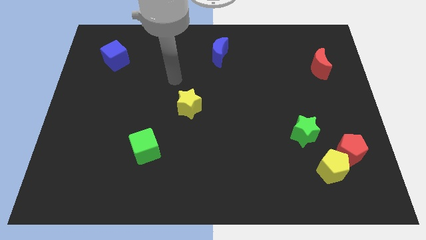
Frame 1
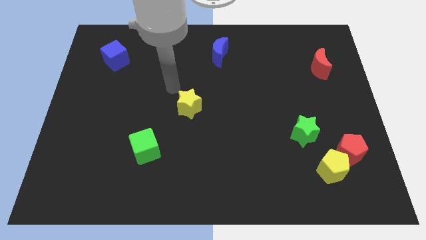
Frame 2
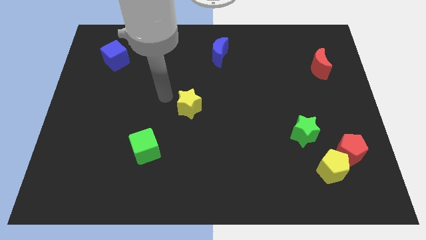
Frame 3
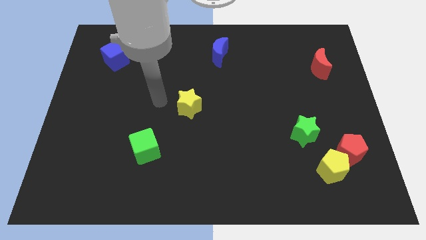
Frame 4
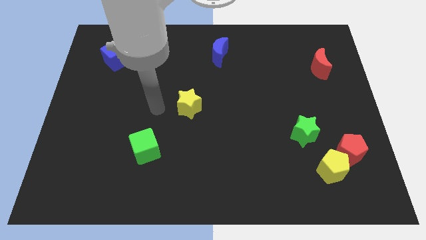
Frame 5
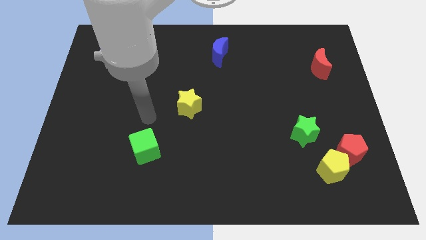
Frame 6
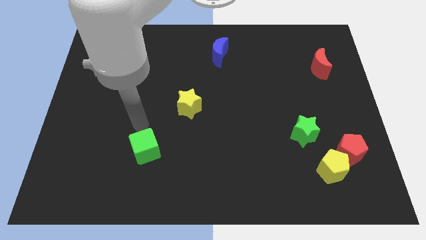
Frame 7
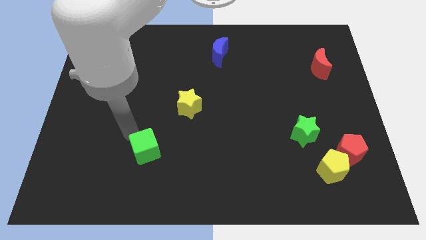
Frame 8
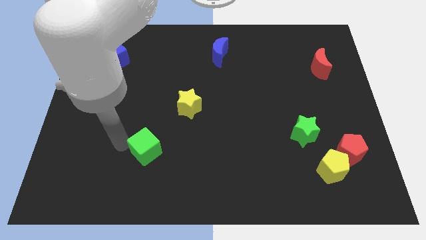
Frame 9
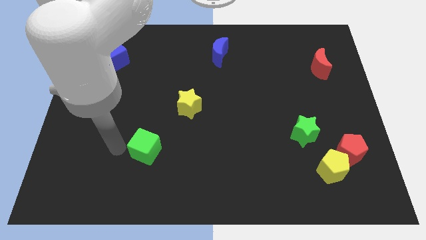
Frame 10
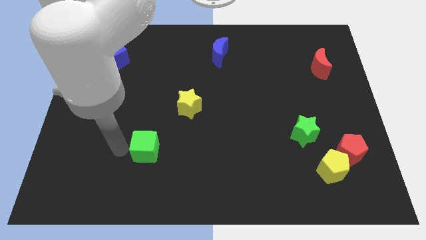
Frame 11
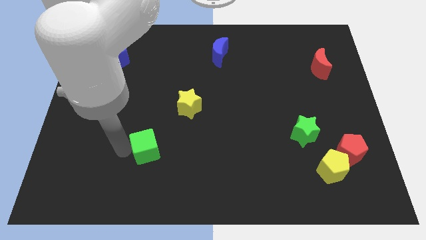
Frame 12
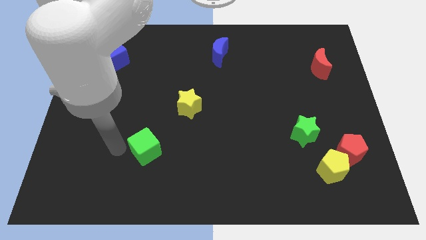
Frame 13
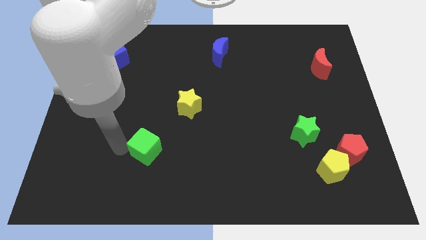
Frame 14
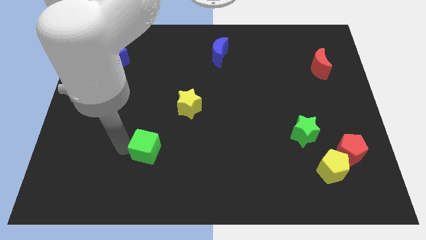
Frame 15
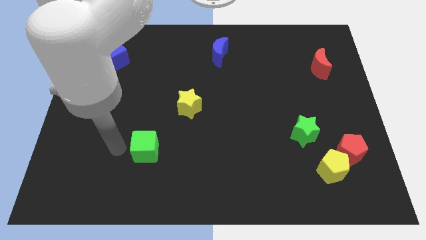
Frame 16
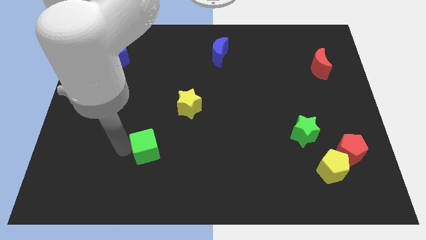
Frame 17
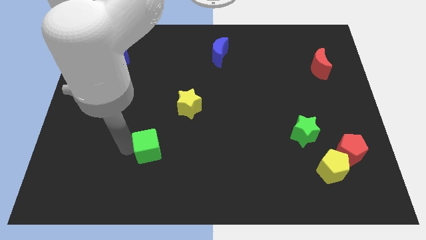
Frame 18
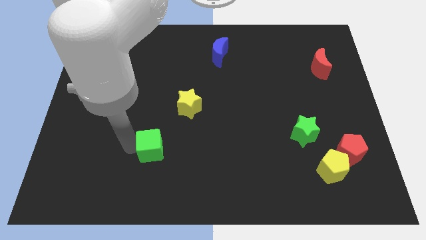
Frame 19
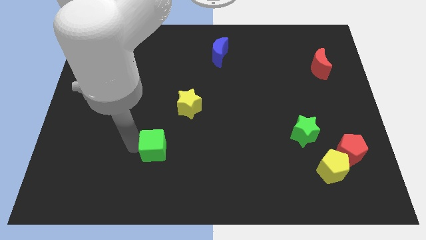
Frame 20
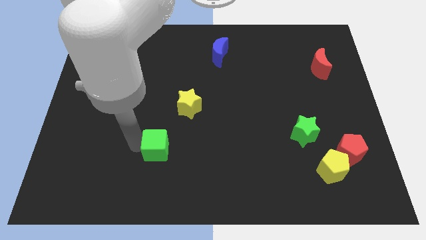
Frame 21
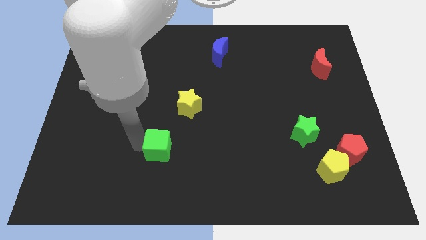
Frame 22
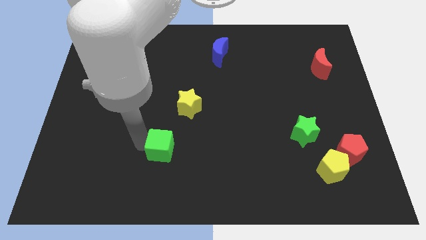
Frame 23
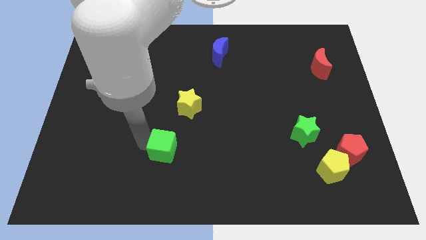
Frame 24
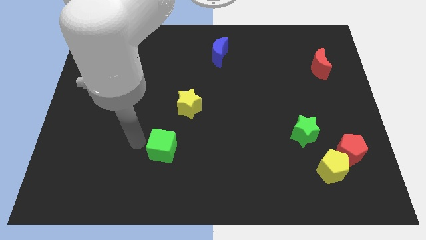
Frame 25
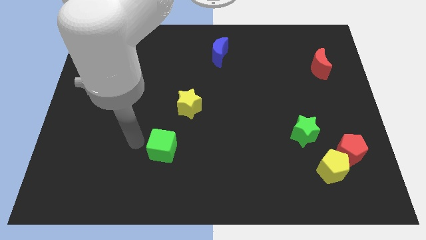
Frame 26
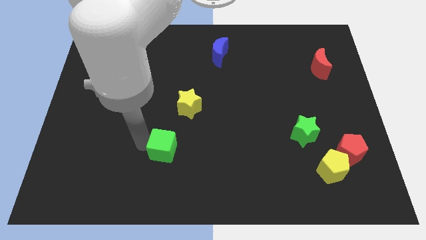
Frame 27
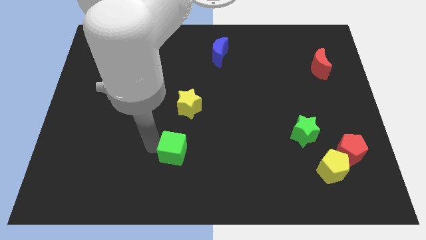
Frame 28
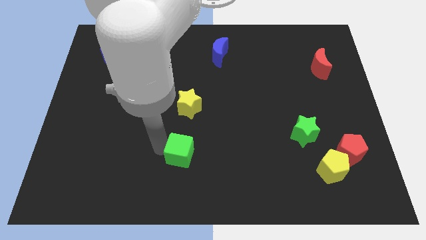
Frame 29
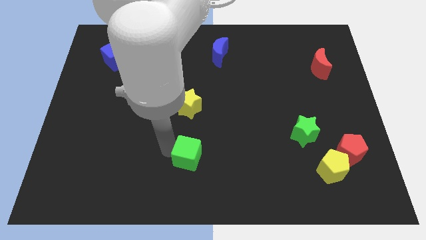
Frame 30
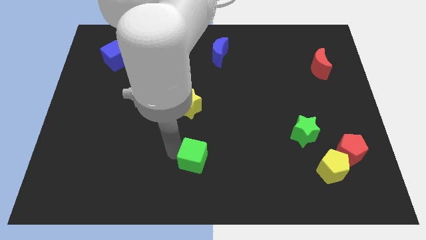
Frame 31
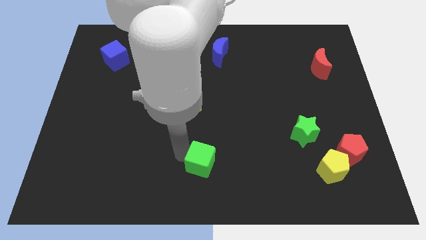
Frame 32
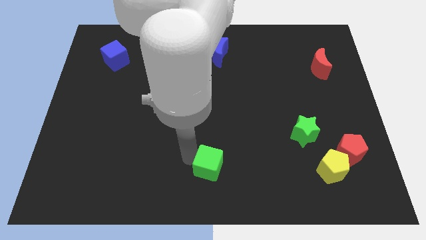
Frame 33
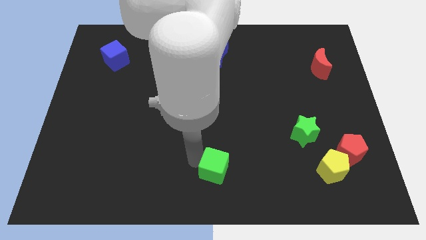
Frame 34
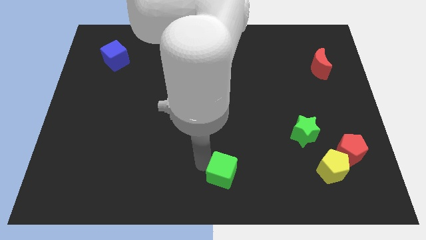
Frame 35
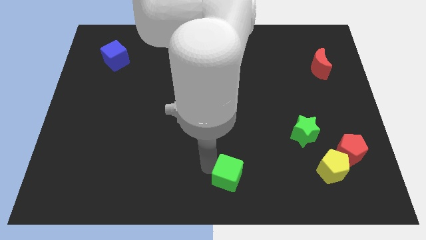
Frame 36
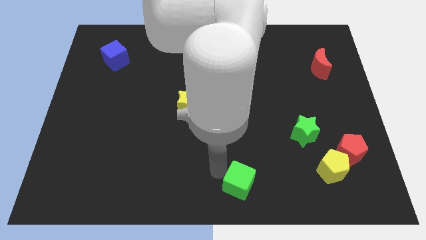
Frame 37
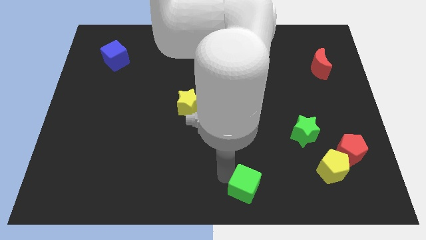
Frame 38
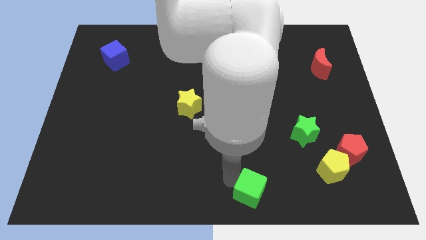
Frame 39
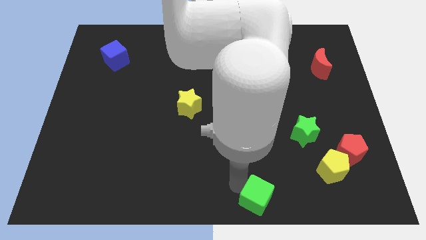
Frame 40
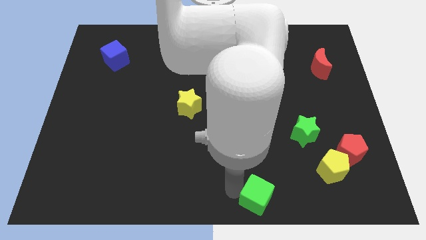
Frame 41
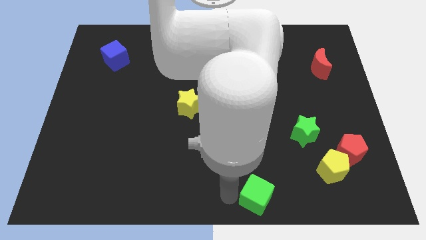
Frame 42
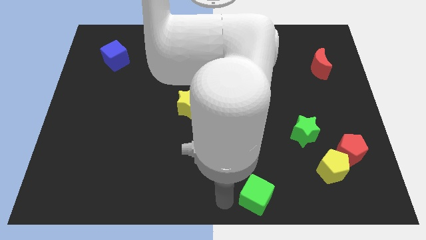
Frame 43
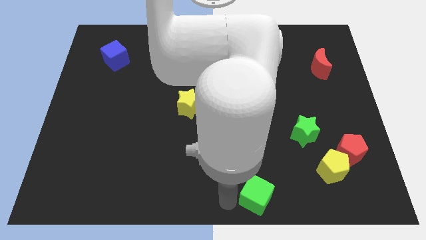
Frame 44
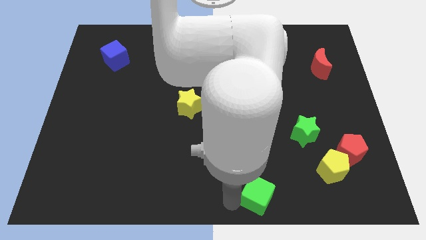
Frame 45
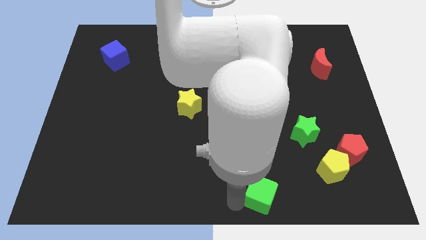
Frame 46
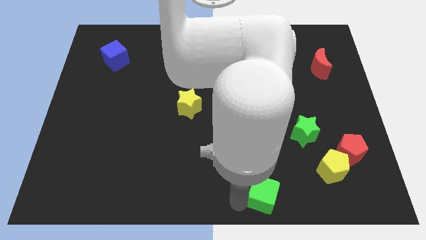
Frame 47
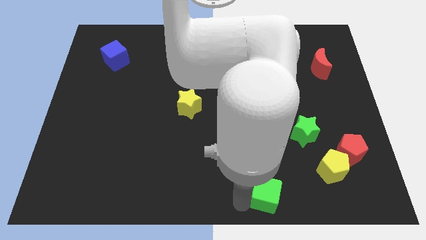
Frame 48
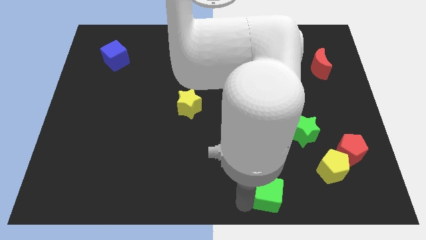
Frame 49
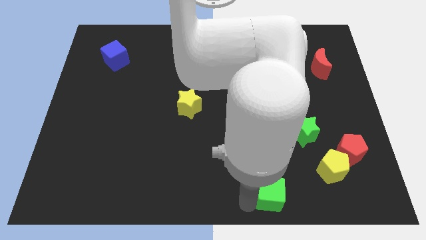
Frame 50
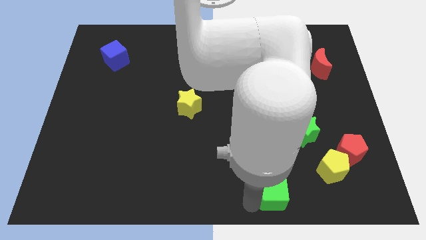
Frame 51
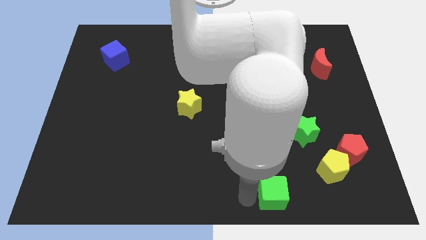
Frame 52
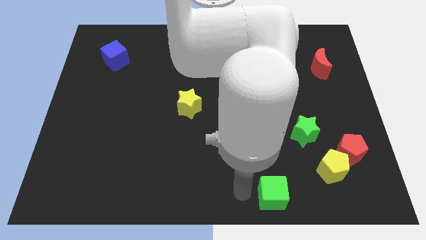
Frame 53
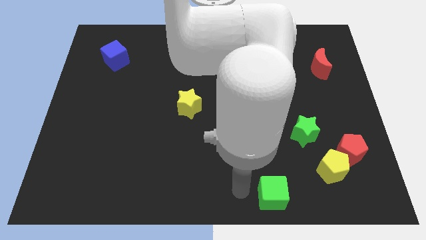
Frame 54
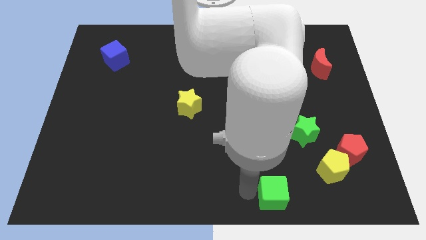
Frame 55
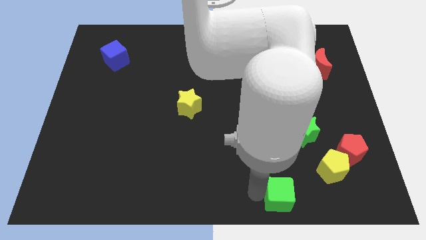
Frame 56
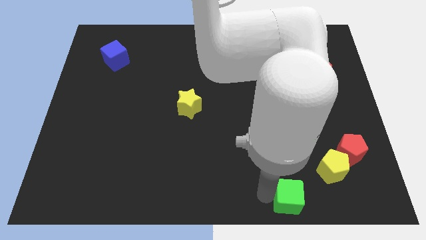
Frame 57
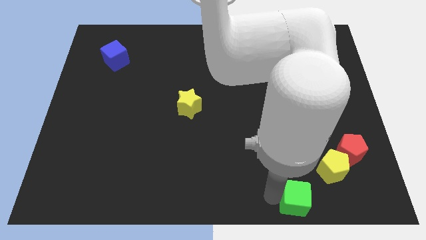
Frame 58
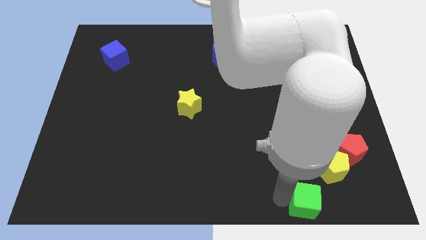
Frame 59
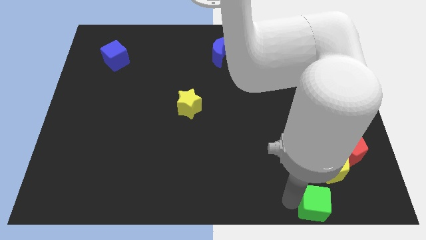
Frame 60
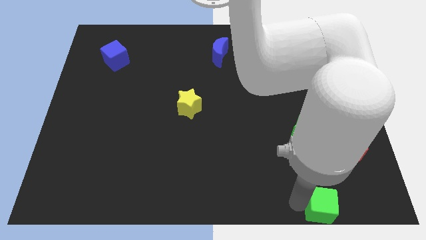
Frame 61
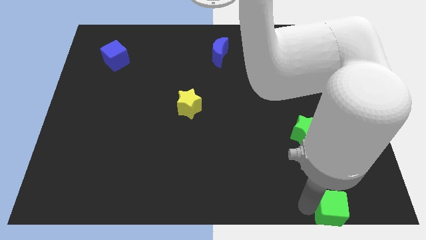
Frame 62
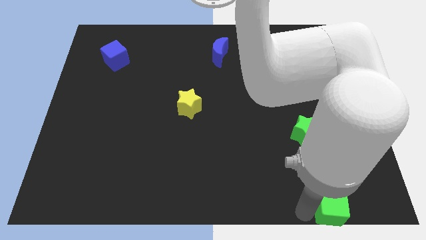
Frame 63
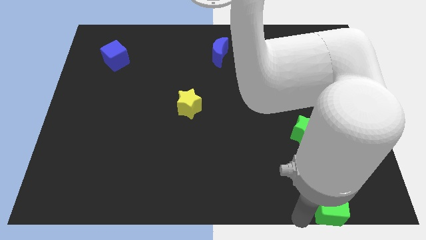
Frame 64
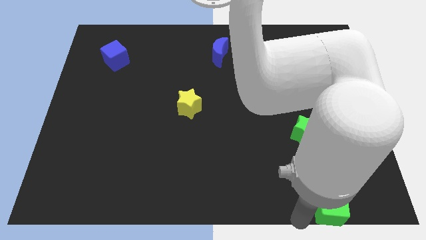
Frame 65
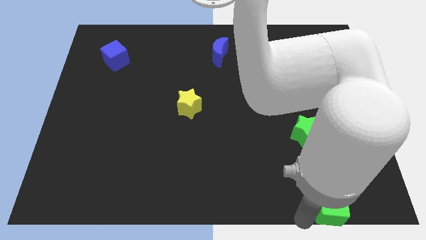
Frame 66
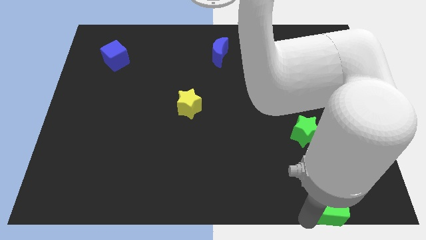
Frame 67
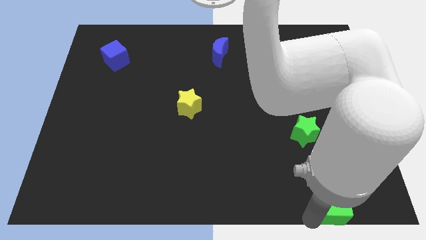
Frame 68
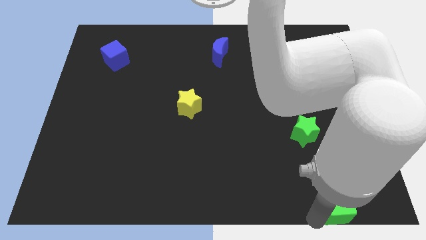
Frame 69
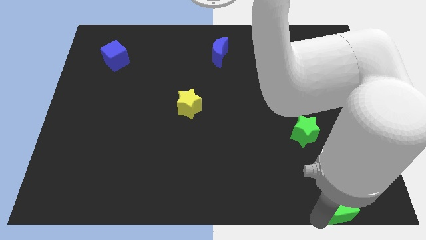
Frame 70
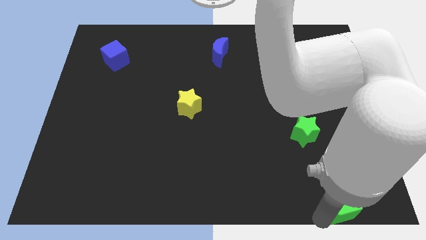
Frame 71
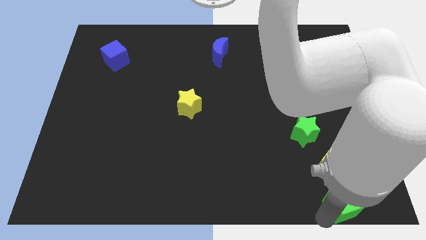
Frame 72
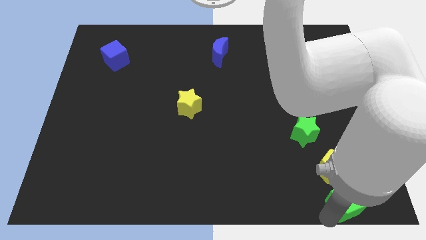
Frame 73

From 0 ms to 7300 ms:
move the green cube to the bottom right
